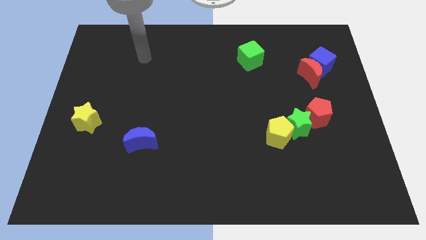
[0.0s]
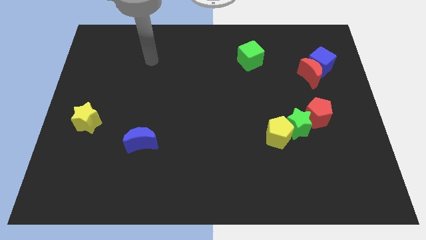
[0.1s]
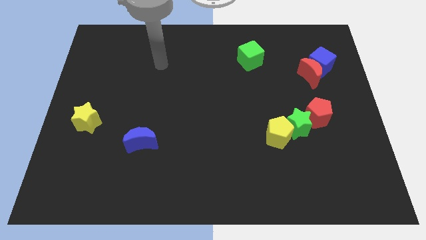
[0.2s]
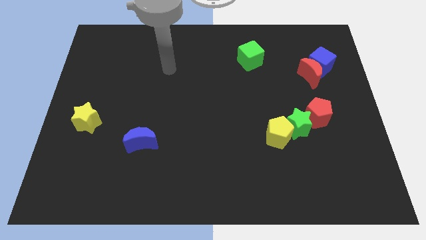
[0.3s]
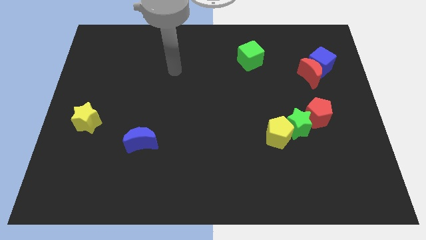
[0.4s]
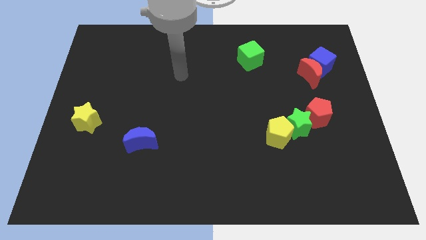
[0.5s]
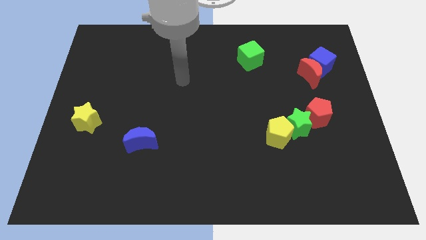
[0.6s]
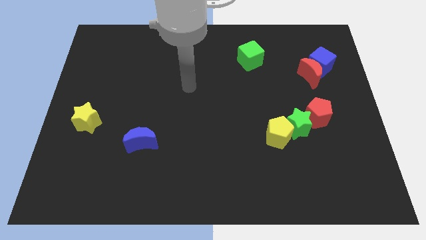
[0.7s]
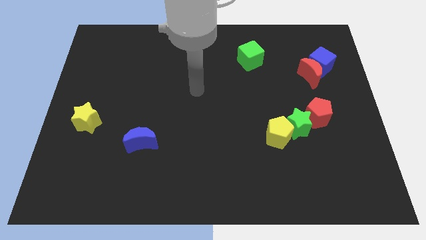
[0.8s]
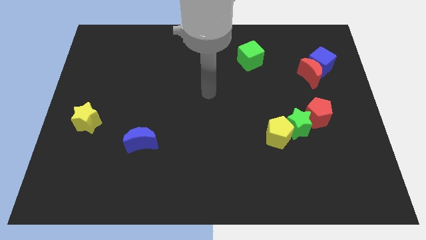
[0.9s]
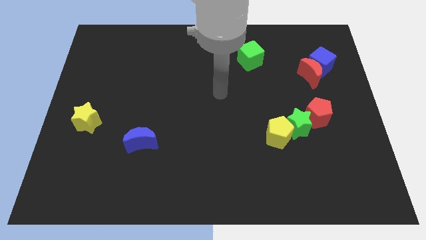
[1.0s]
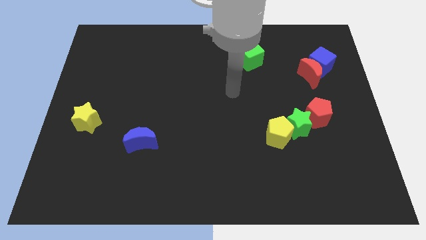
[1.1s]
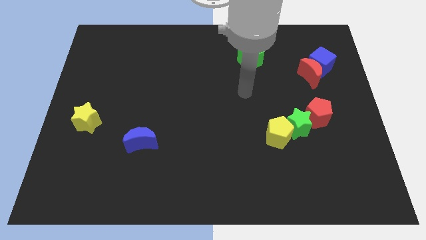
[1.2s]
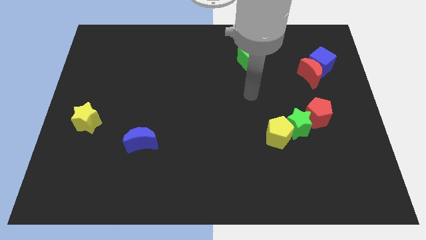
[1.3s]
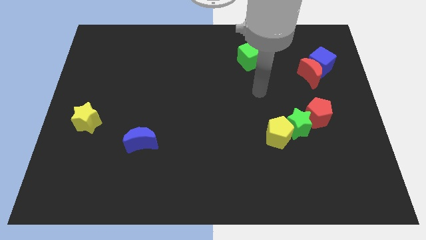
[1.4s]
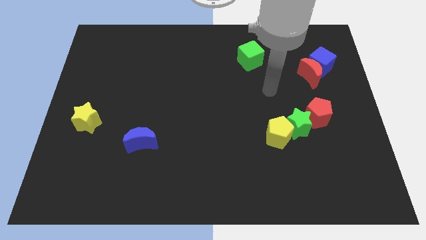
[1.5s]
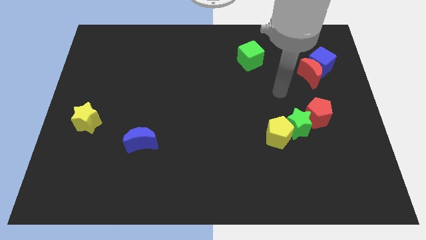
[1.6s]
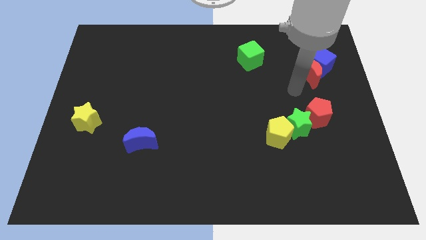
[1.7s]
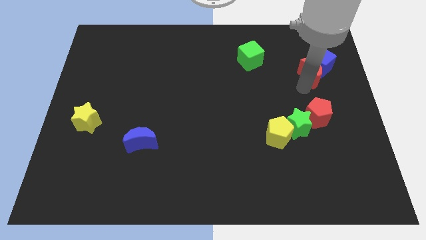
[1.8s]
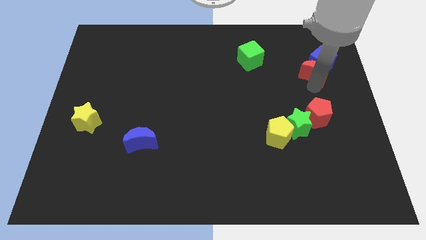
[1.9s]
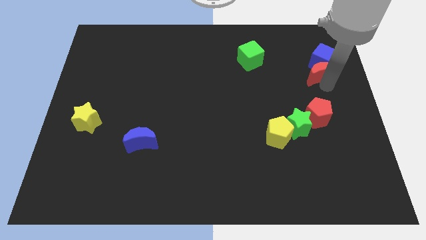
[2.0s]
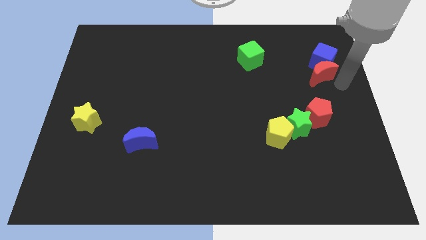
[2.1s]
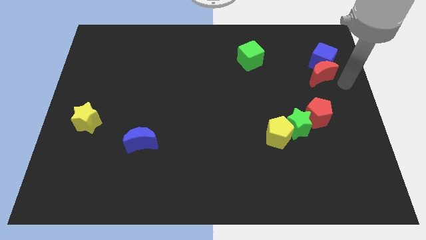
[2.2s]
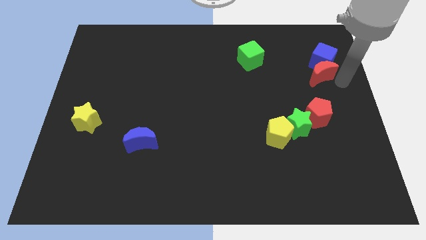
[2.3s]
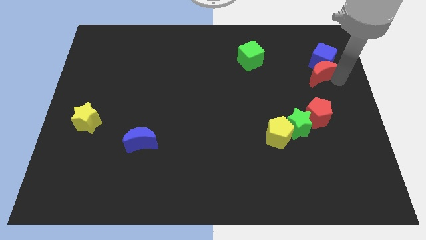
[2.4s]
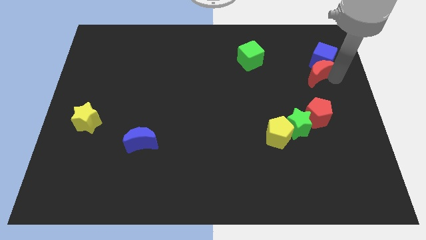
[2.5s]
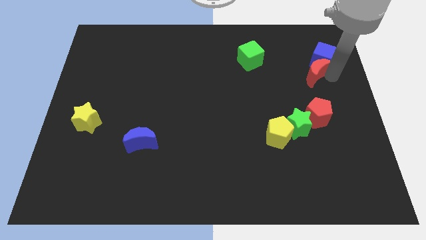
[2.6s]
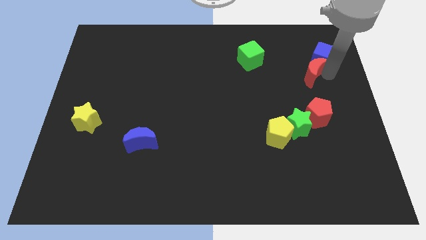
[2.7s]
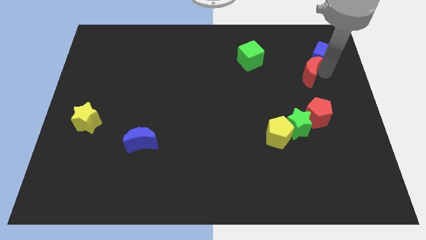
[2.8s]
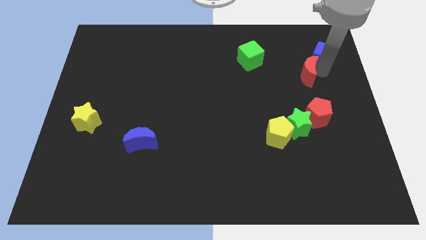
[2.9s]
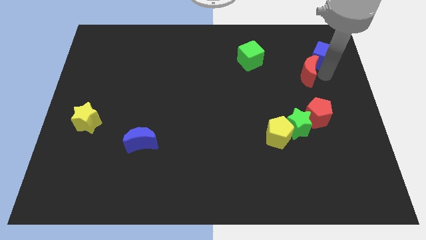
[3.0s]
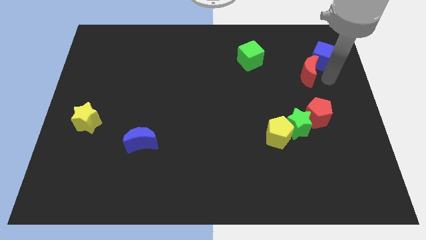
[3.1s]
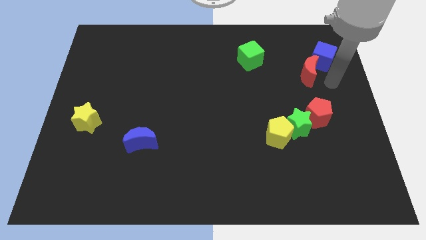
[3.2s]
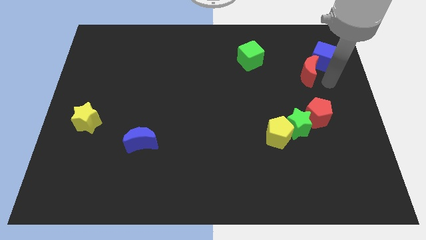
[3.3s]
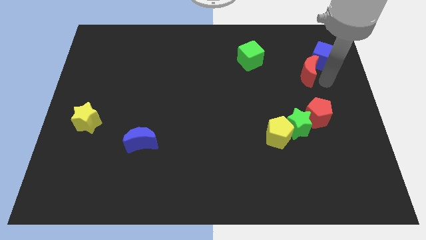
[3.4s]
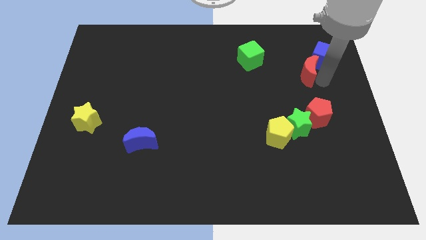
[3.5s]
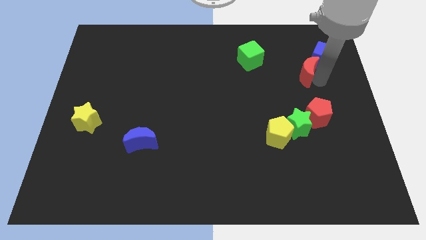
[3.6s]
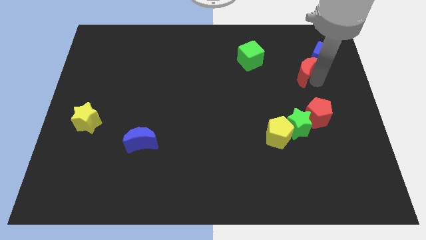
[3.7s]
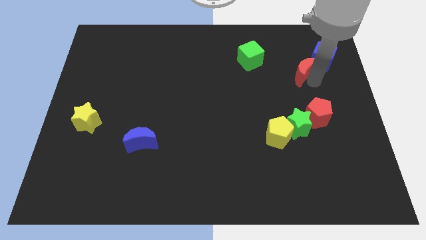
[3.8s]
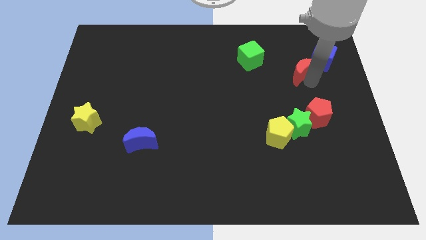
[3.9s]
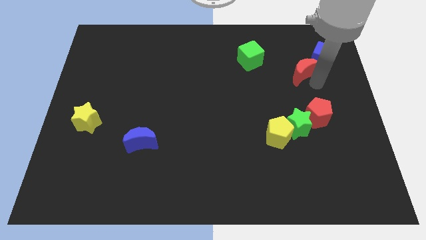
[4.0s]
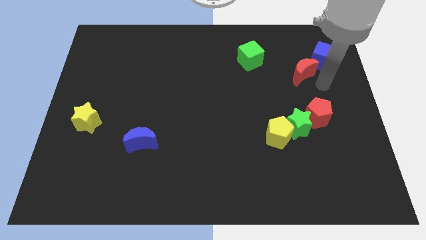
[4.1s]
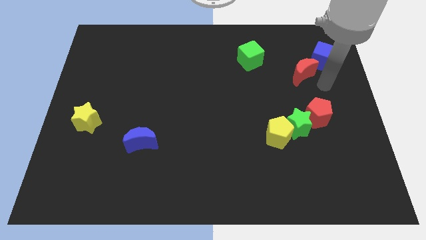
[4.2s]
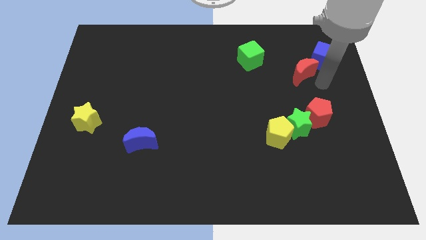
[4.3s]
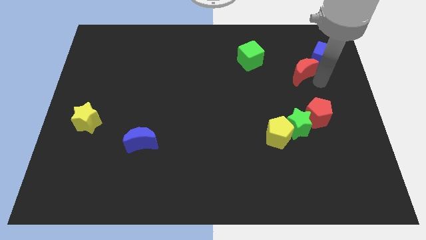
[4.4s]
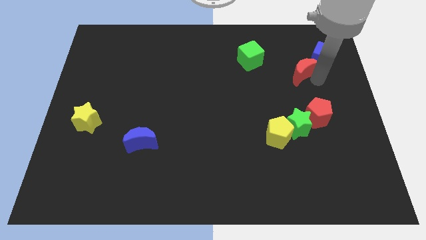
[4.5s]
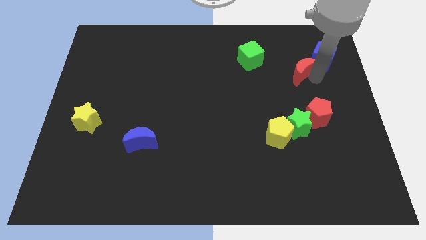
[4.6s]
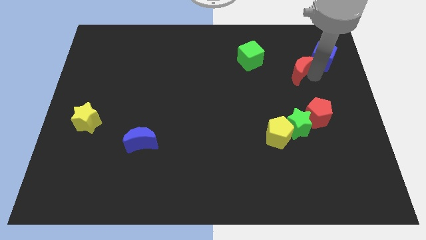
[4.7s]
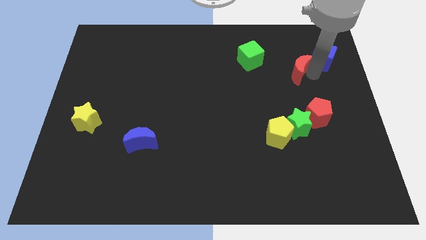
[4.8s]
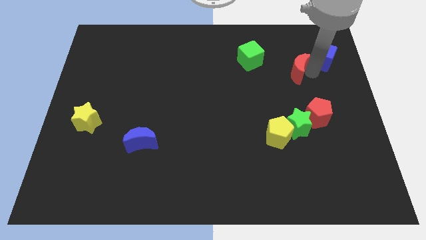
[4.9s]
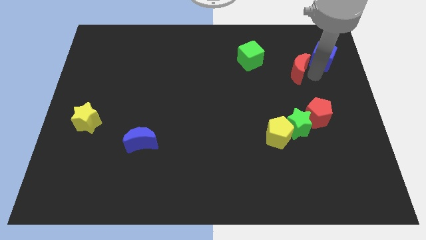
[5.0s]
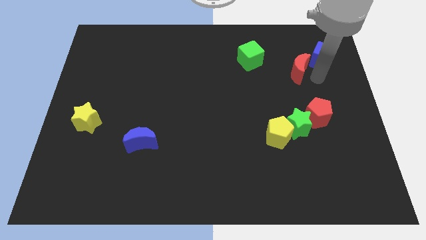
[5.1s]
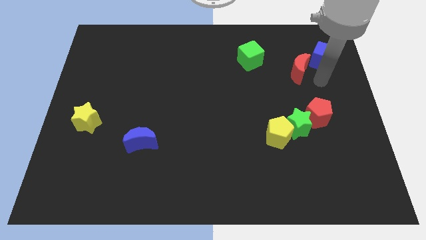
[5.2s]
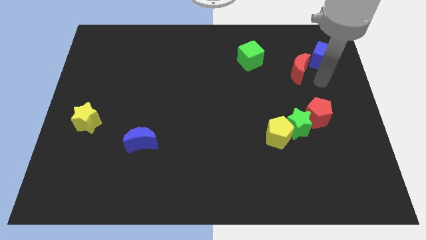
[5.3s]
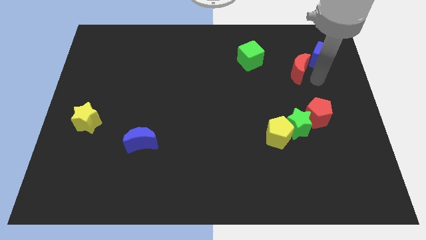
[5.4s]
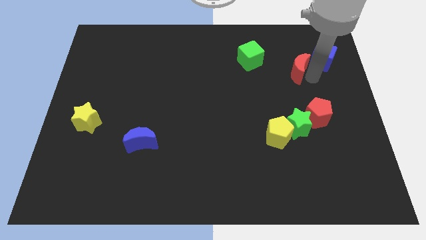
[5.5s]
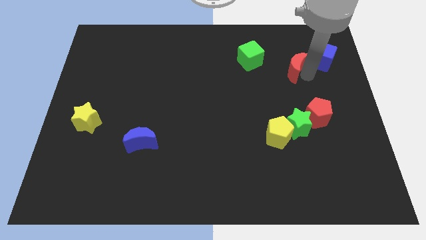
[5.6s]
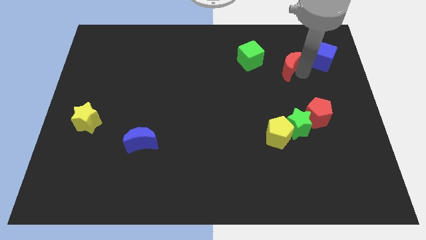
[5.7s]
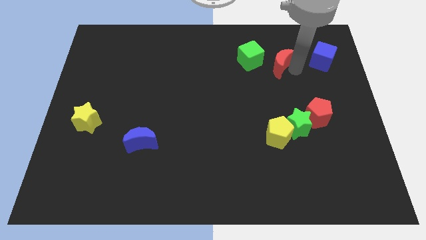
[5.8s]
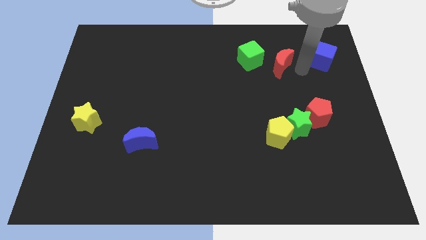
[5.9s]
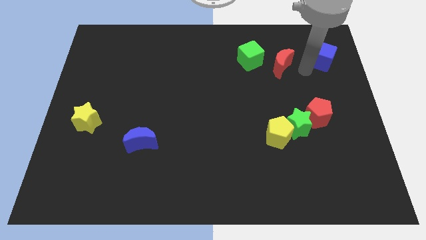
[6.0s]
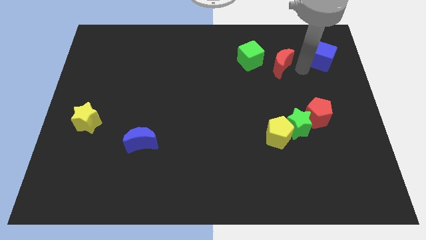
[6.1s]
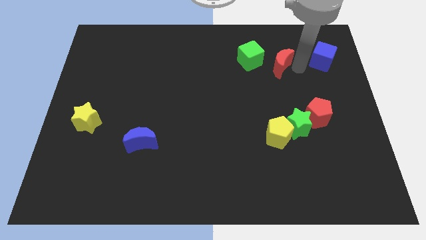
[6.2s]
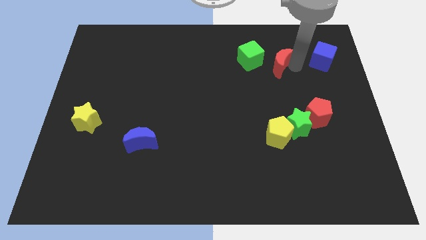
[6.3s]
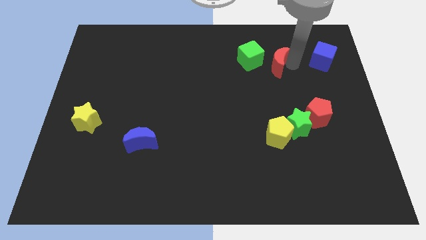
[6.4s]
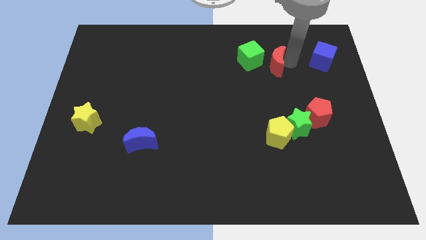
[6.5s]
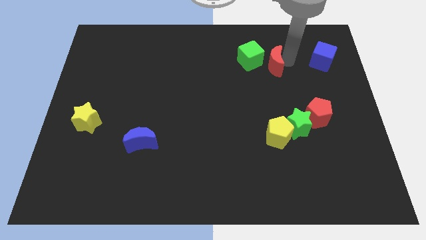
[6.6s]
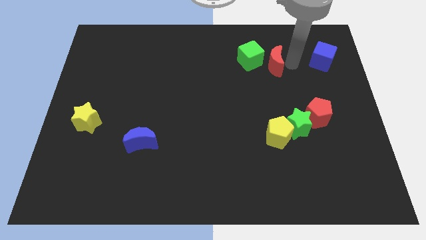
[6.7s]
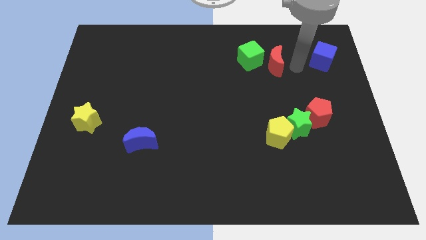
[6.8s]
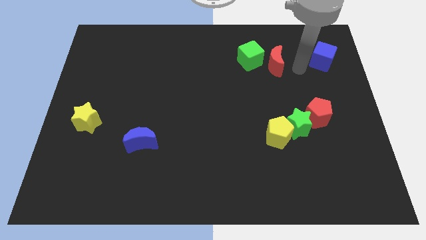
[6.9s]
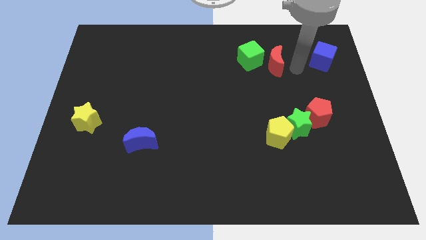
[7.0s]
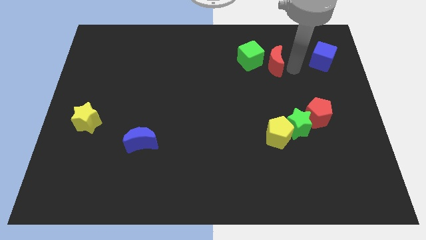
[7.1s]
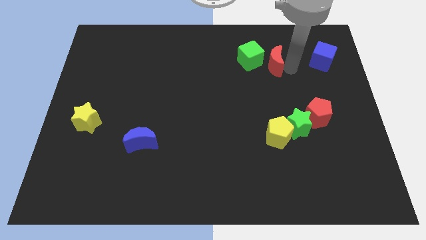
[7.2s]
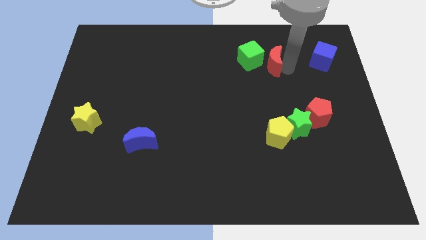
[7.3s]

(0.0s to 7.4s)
move the red moon next to the green cube
